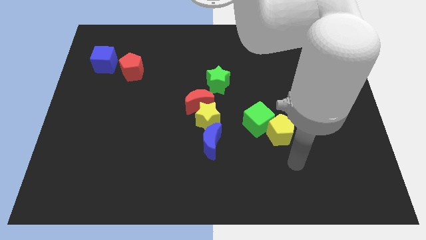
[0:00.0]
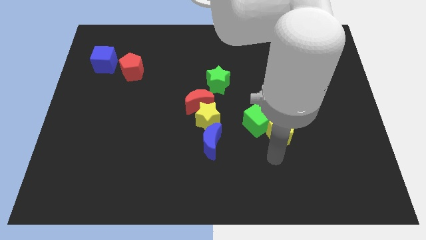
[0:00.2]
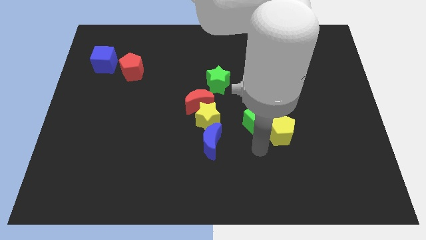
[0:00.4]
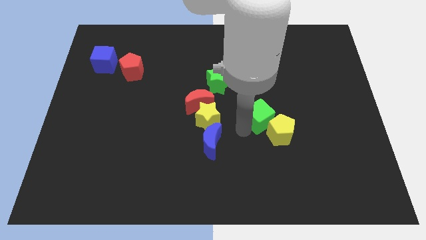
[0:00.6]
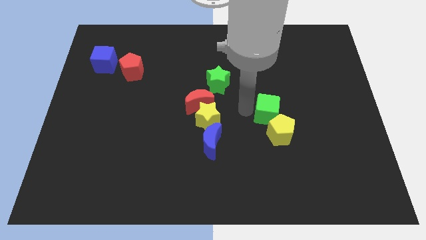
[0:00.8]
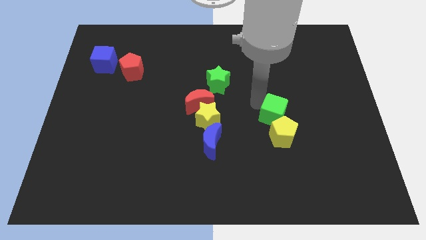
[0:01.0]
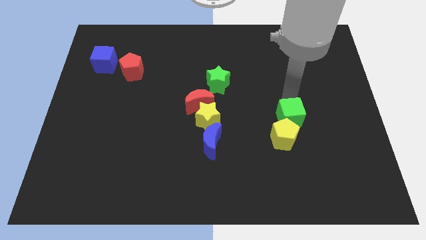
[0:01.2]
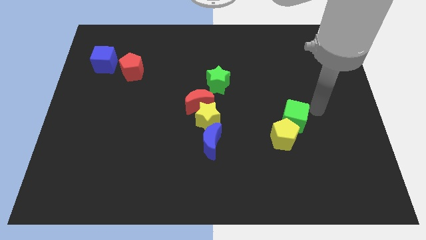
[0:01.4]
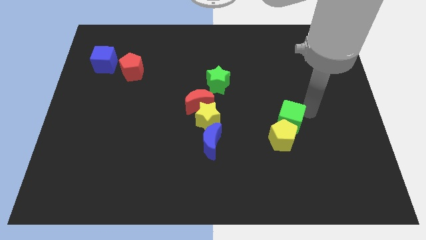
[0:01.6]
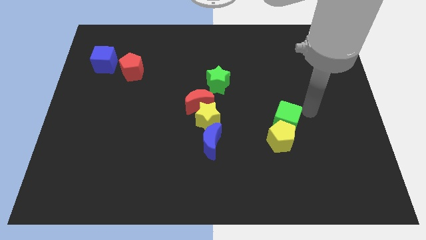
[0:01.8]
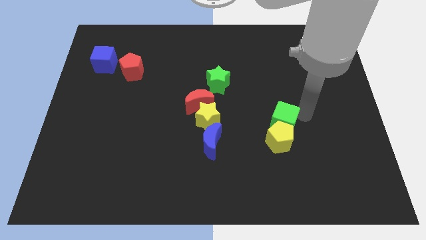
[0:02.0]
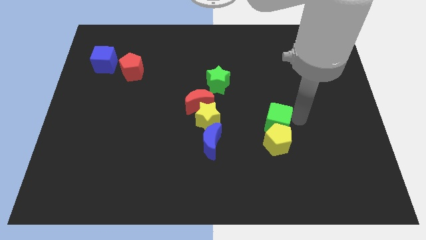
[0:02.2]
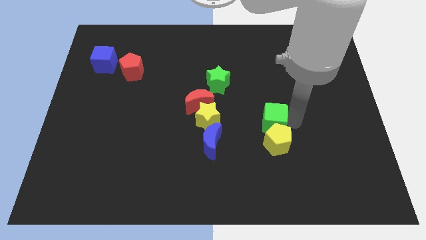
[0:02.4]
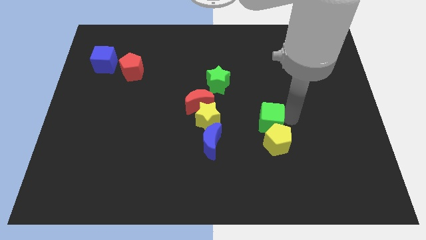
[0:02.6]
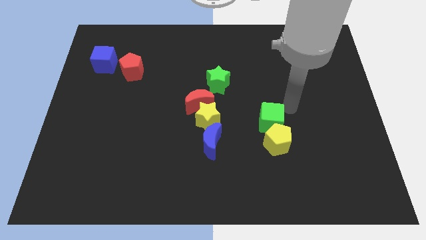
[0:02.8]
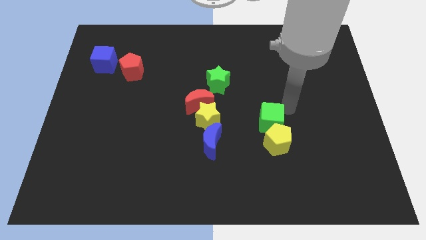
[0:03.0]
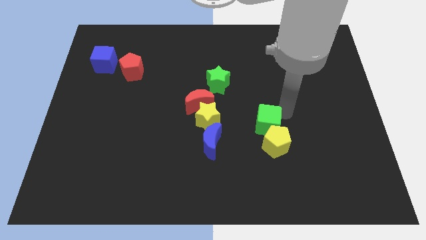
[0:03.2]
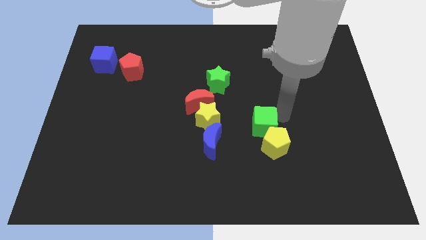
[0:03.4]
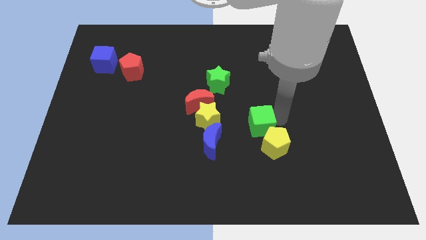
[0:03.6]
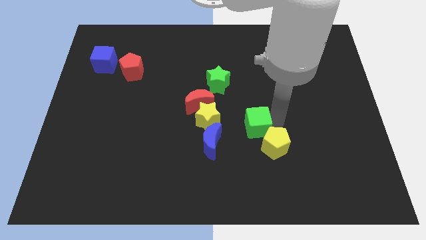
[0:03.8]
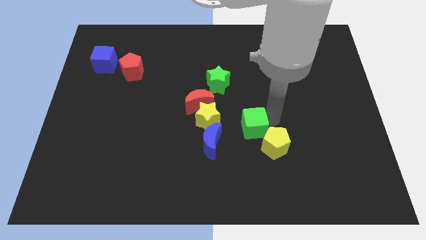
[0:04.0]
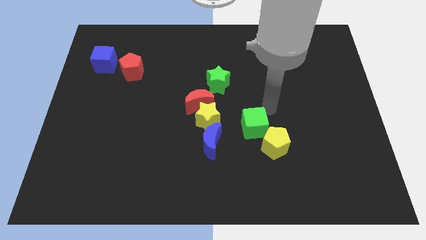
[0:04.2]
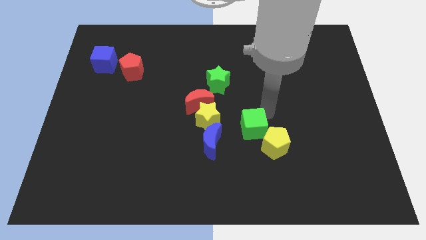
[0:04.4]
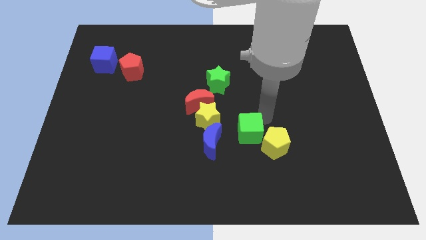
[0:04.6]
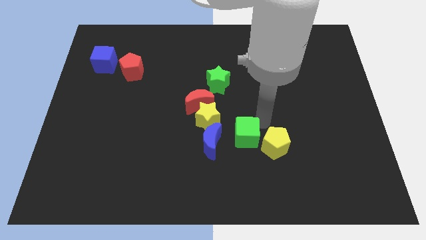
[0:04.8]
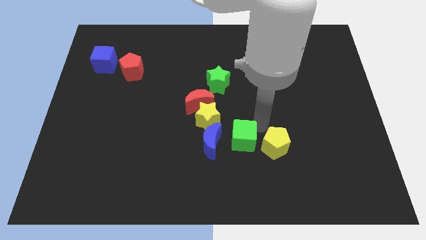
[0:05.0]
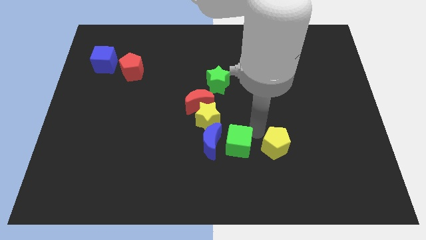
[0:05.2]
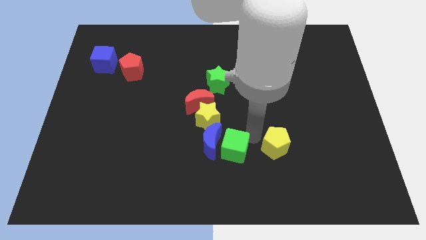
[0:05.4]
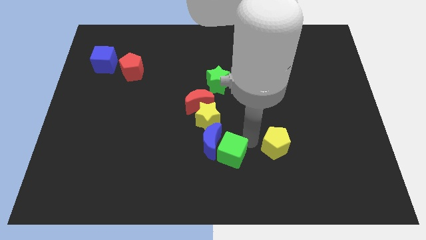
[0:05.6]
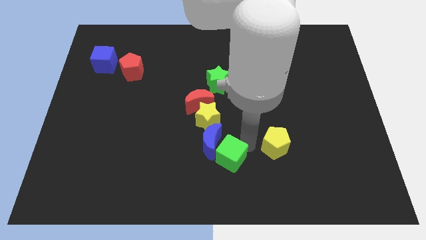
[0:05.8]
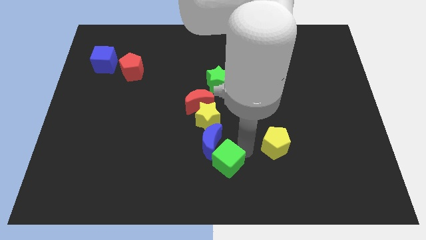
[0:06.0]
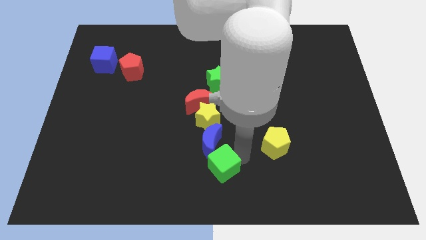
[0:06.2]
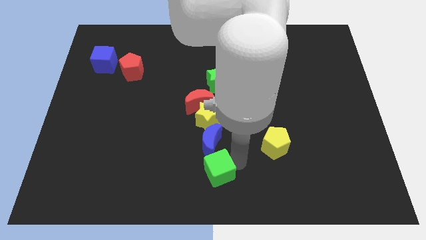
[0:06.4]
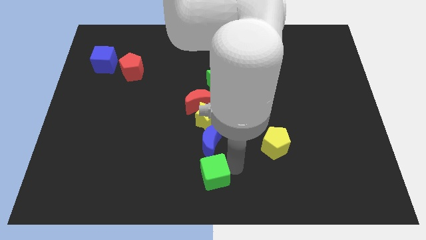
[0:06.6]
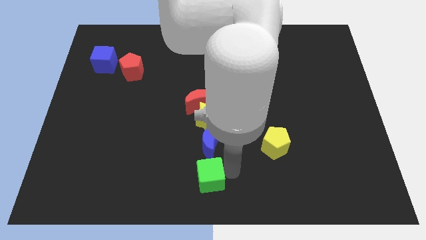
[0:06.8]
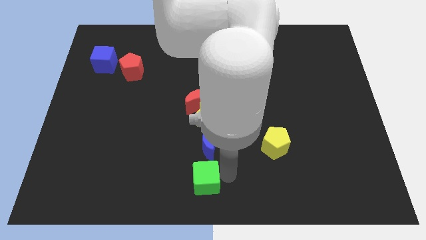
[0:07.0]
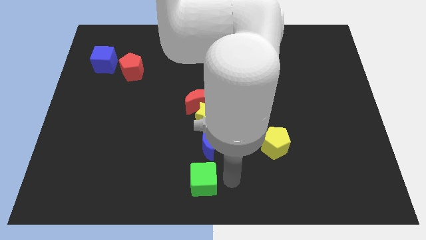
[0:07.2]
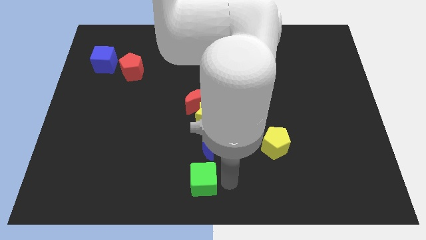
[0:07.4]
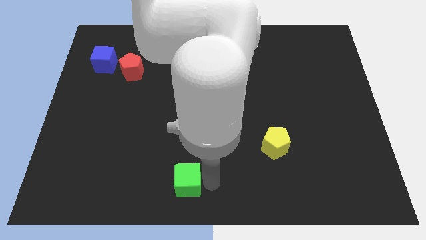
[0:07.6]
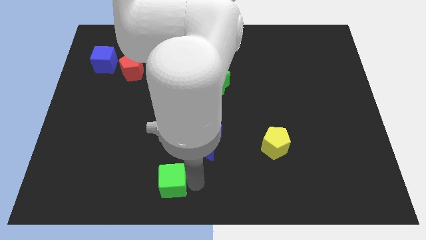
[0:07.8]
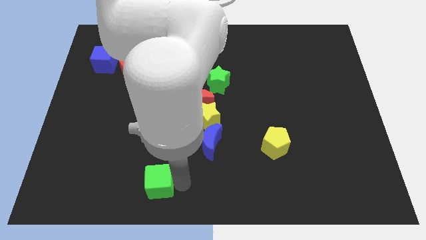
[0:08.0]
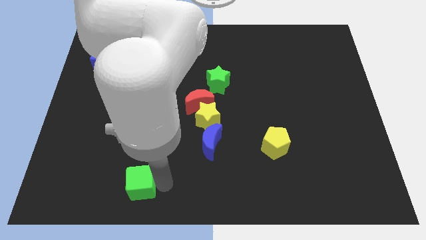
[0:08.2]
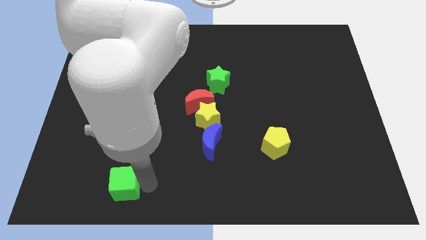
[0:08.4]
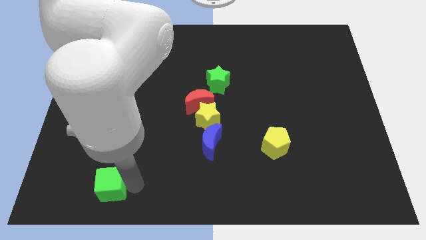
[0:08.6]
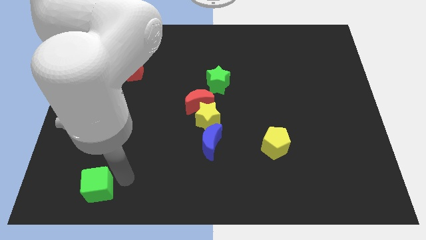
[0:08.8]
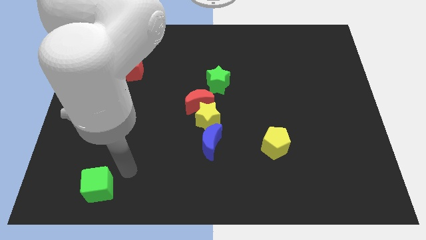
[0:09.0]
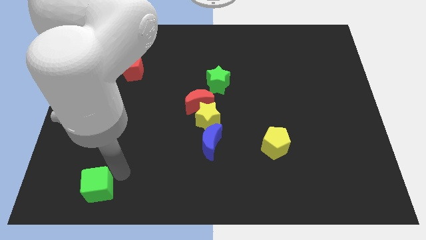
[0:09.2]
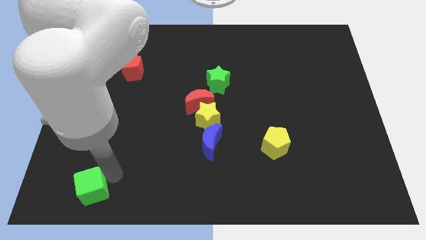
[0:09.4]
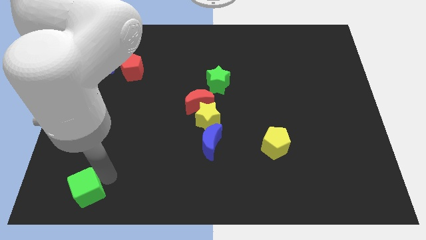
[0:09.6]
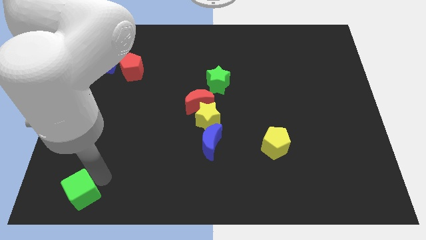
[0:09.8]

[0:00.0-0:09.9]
slide the green cube to the lower left corner

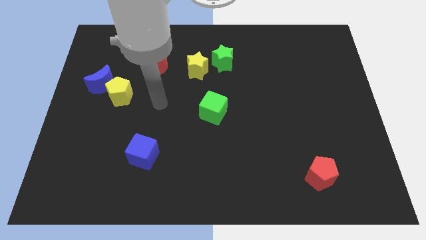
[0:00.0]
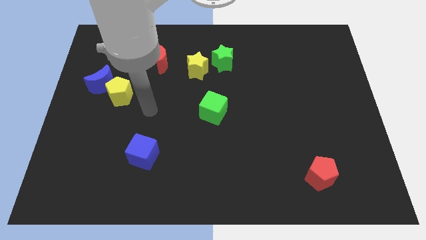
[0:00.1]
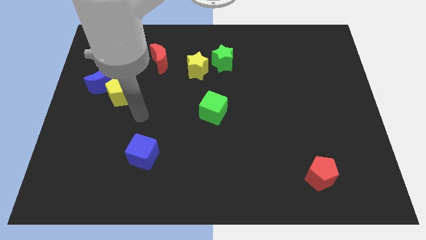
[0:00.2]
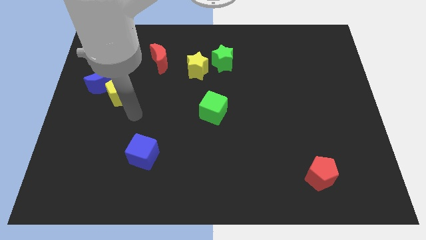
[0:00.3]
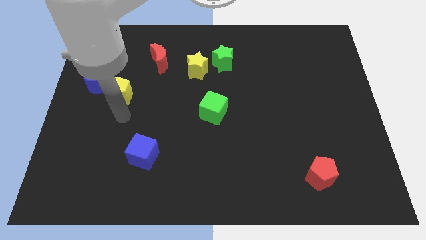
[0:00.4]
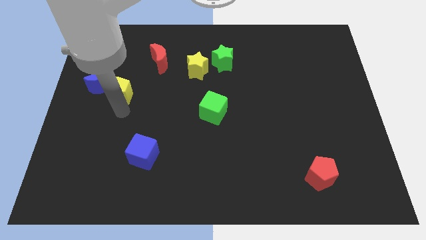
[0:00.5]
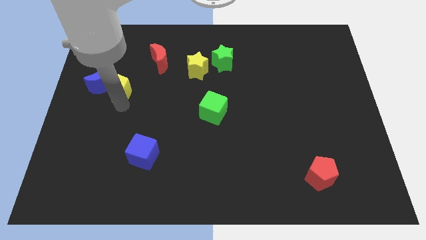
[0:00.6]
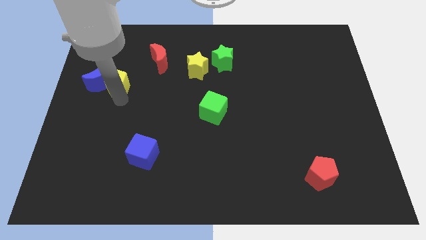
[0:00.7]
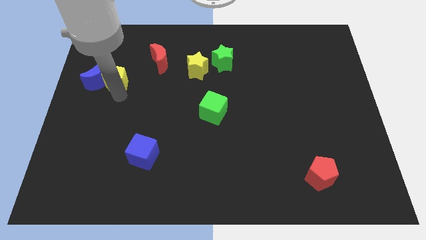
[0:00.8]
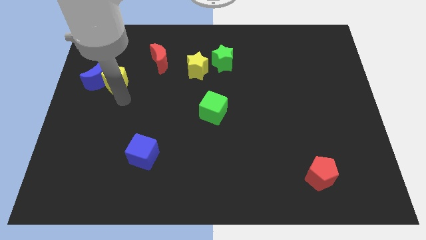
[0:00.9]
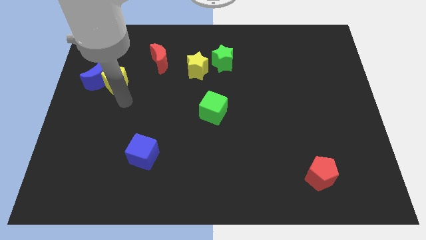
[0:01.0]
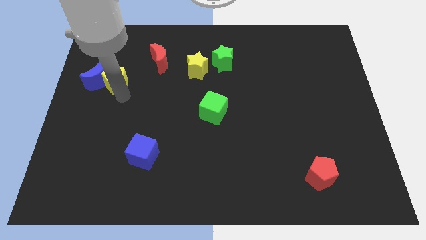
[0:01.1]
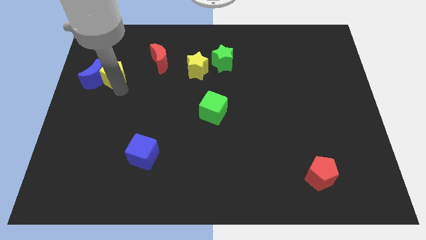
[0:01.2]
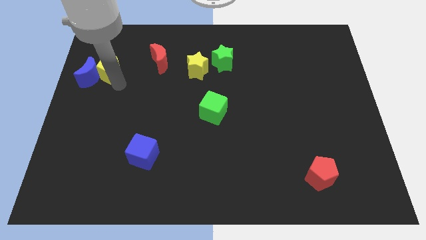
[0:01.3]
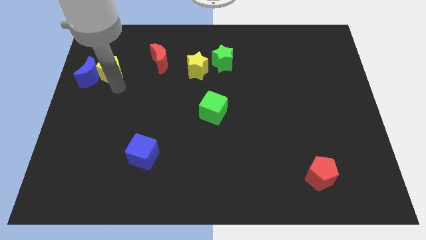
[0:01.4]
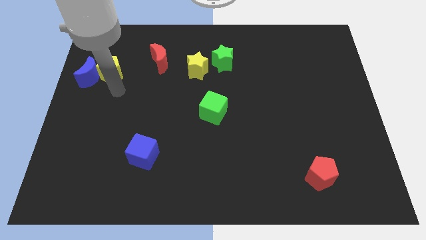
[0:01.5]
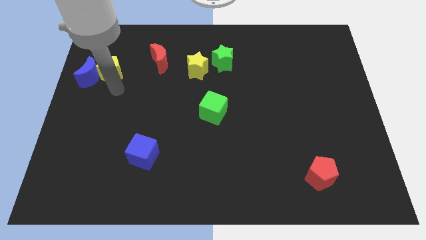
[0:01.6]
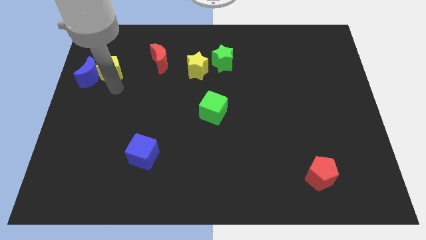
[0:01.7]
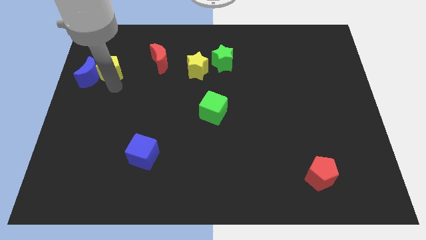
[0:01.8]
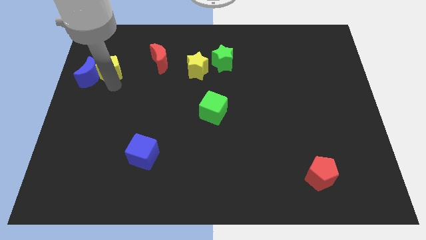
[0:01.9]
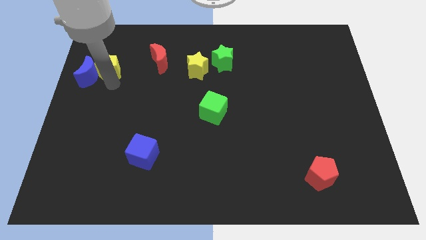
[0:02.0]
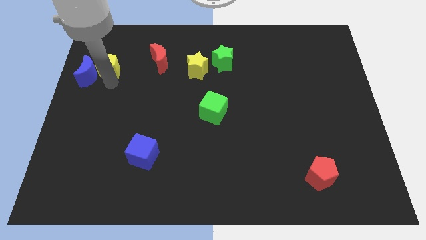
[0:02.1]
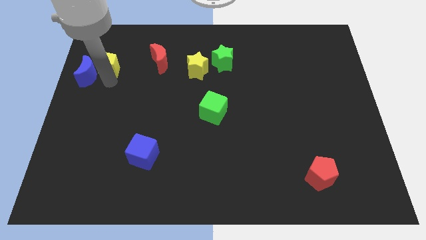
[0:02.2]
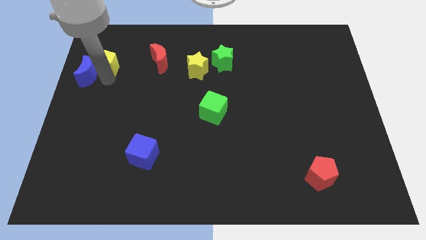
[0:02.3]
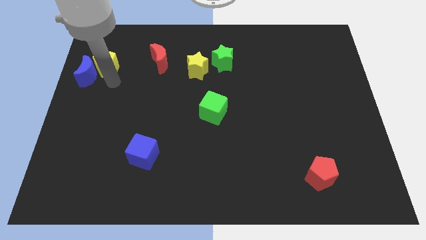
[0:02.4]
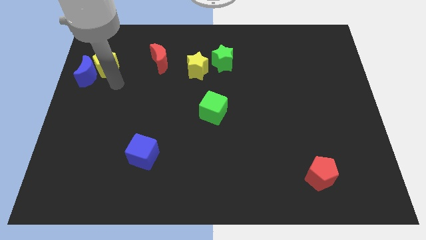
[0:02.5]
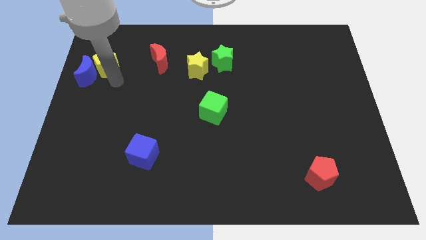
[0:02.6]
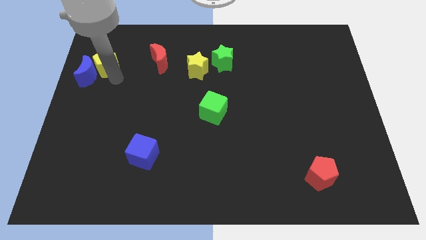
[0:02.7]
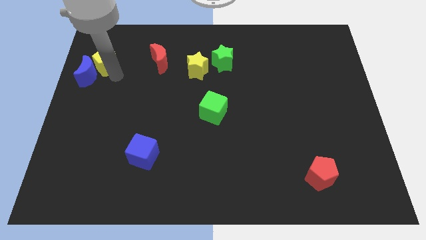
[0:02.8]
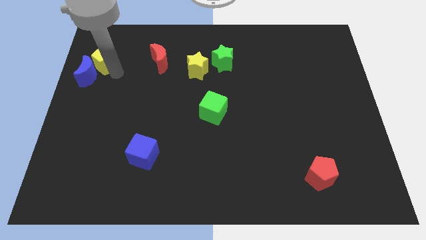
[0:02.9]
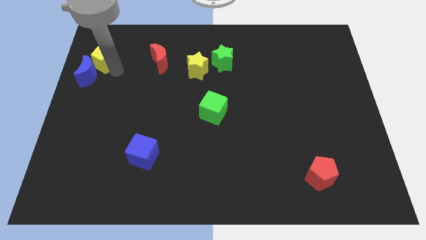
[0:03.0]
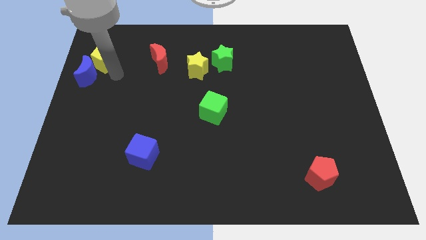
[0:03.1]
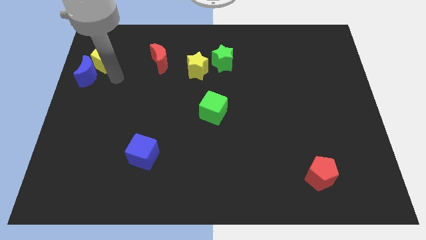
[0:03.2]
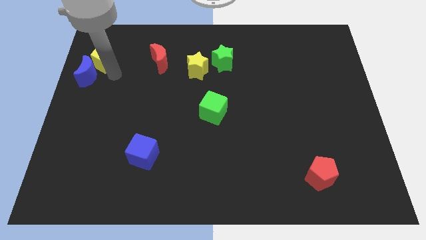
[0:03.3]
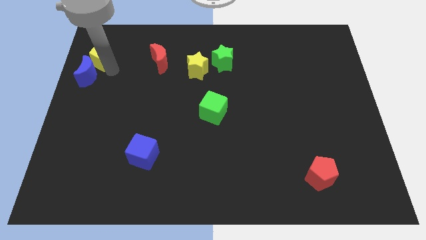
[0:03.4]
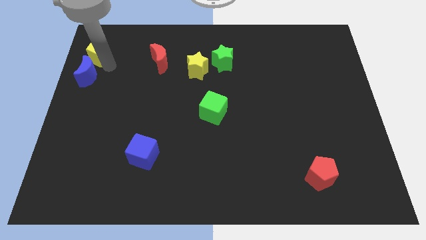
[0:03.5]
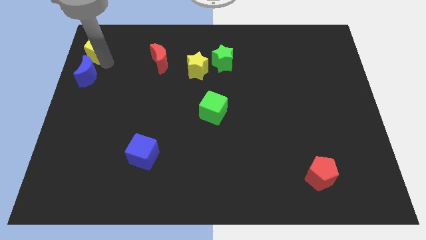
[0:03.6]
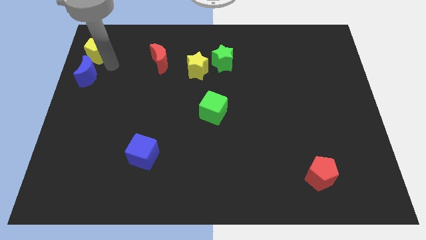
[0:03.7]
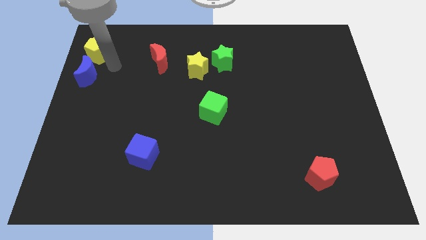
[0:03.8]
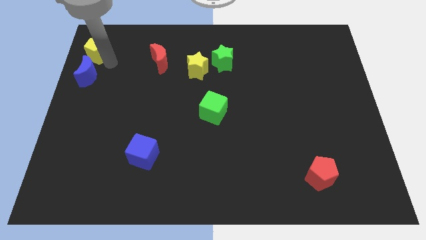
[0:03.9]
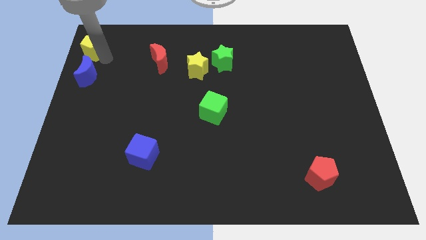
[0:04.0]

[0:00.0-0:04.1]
push the yellow pentagon to the top left corner
